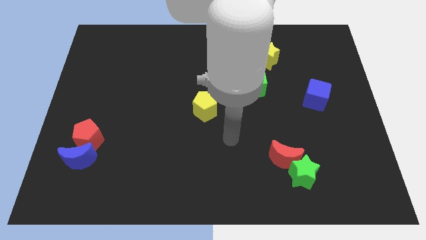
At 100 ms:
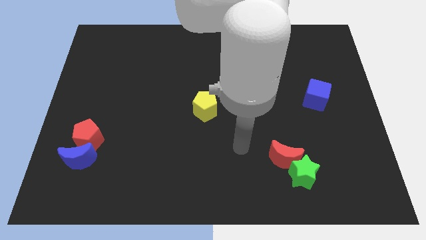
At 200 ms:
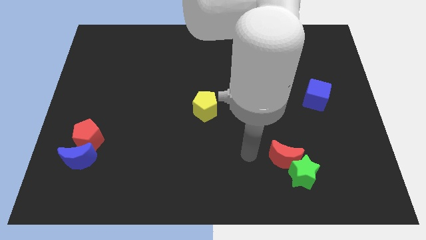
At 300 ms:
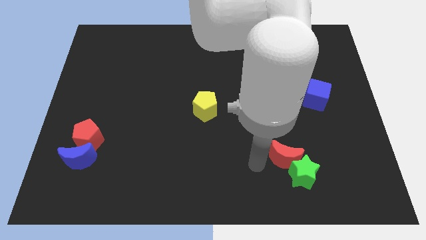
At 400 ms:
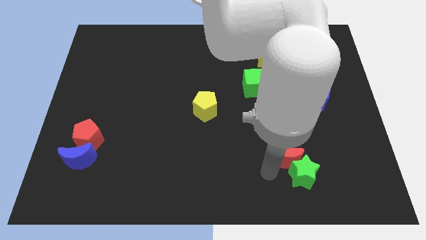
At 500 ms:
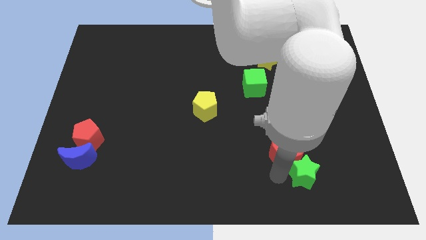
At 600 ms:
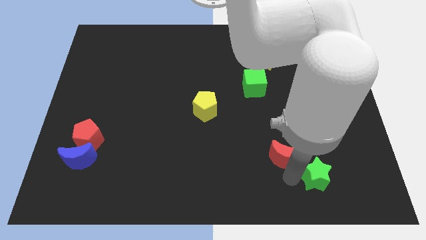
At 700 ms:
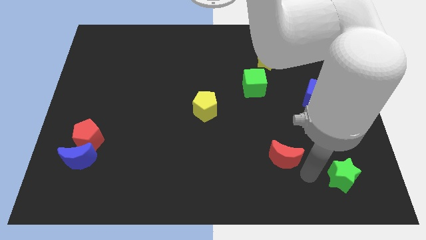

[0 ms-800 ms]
separate the red moon from the green star

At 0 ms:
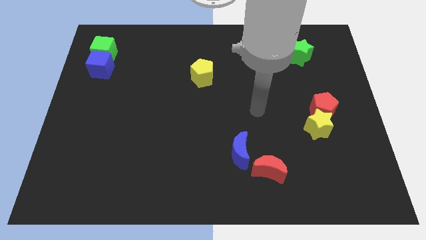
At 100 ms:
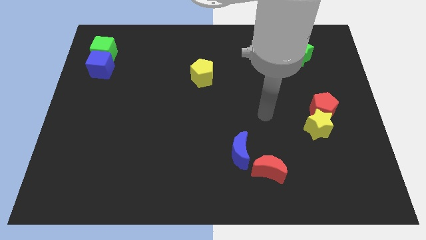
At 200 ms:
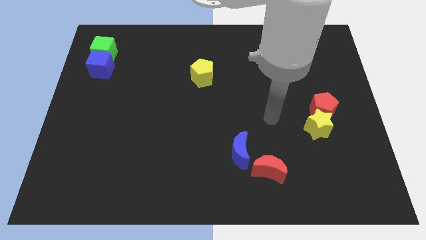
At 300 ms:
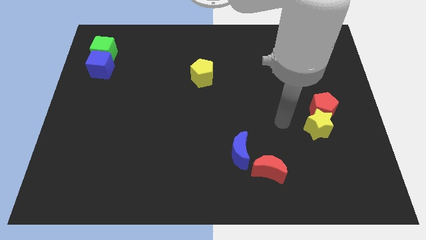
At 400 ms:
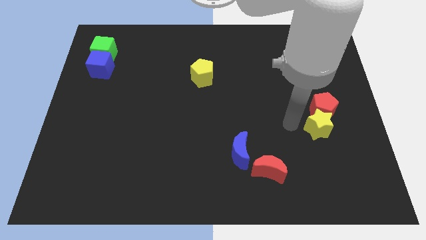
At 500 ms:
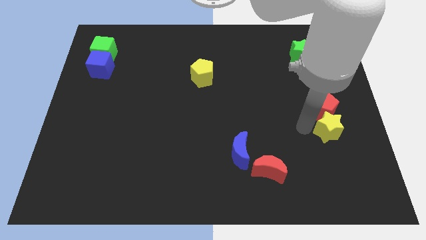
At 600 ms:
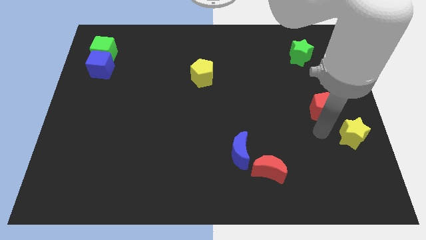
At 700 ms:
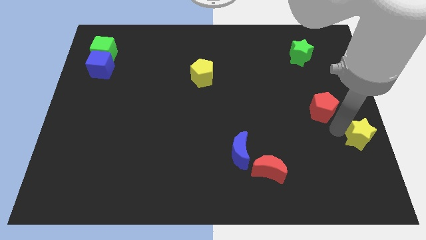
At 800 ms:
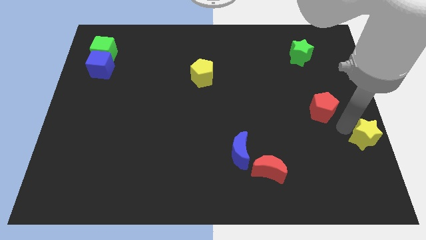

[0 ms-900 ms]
separate the red pentagon from the yellow star

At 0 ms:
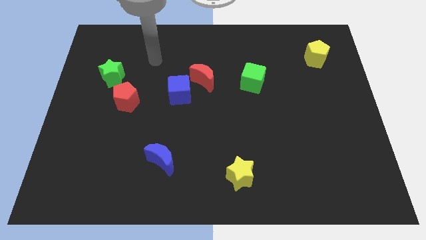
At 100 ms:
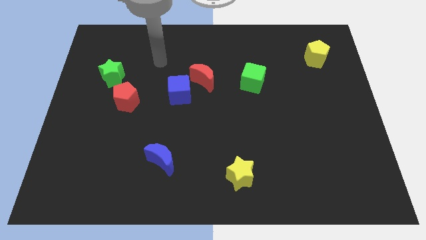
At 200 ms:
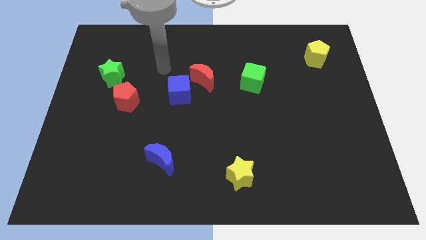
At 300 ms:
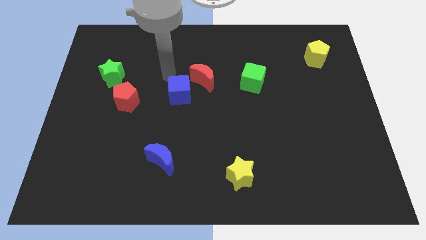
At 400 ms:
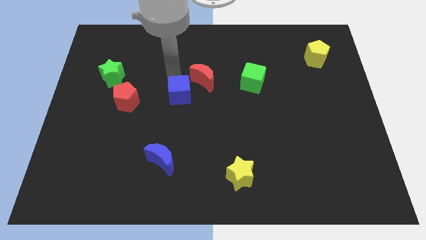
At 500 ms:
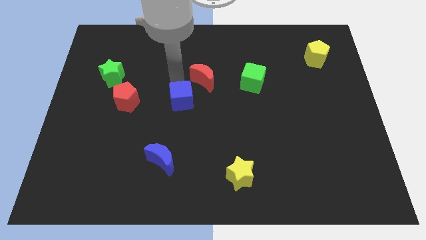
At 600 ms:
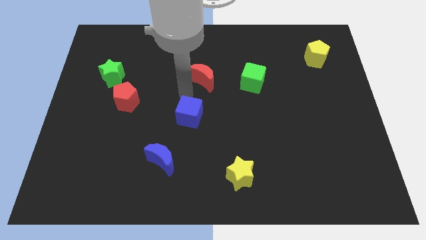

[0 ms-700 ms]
pull the red moon apart from the blue cube

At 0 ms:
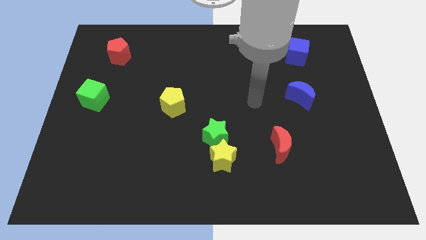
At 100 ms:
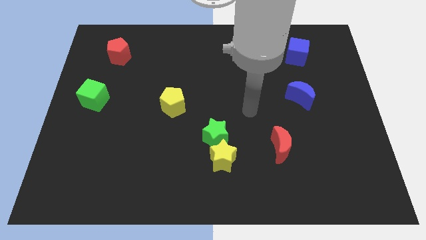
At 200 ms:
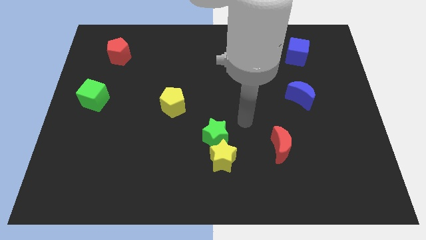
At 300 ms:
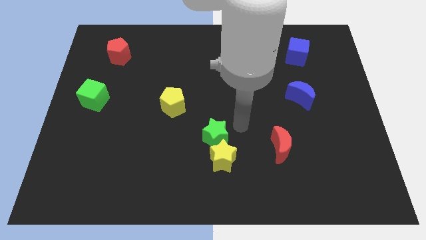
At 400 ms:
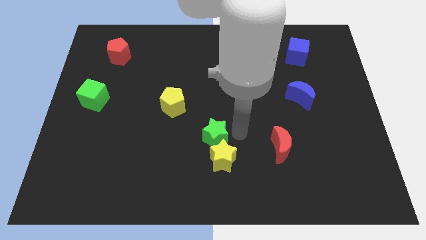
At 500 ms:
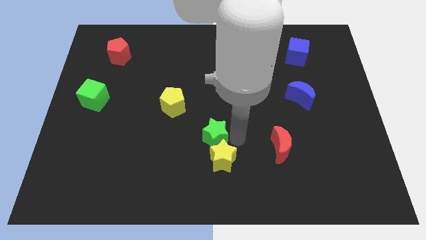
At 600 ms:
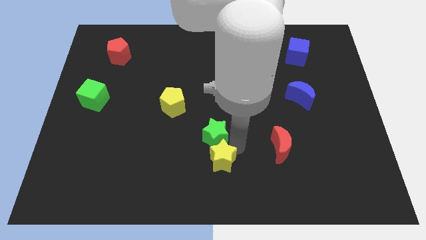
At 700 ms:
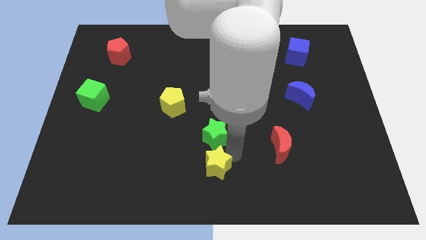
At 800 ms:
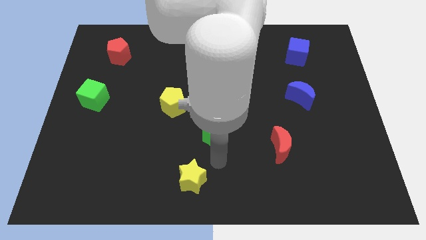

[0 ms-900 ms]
pull the green star apart from the yellow star

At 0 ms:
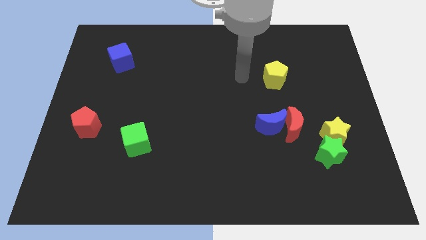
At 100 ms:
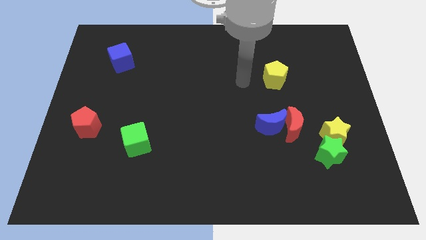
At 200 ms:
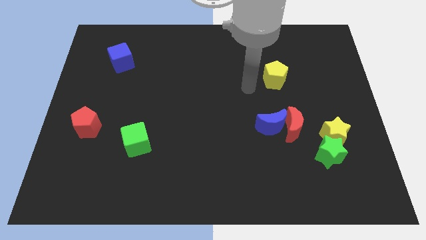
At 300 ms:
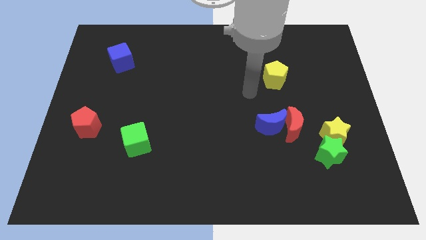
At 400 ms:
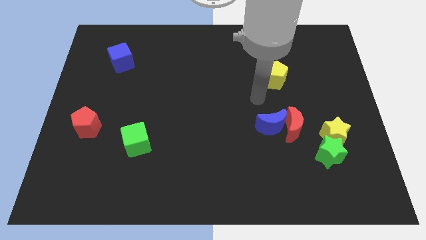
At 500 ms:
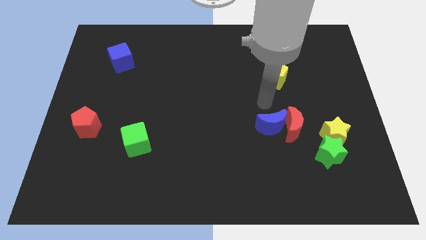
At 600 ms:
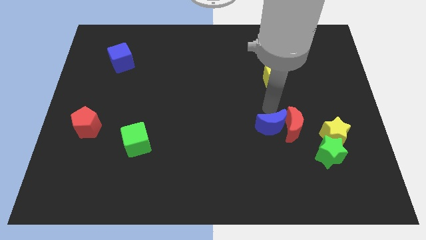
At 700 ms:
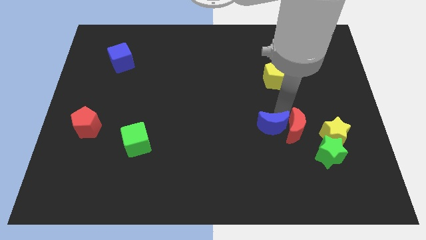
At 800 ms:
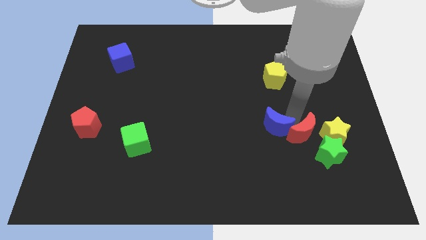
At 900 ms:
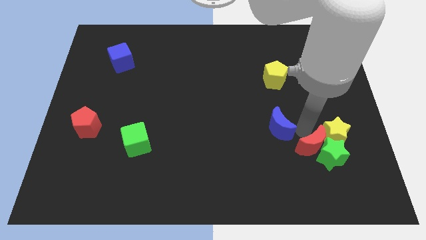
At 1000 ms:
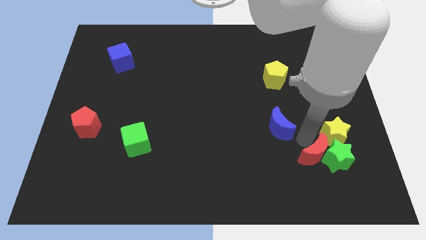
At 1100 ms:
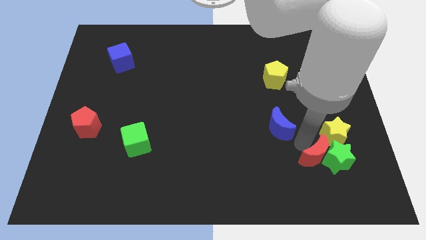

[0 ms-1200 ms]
pull the blue moon apart from the red moon

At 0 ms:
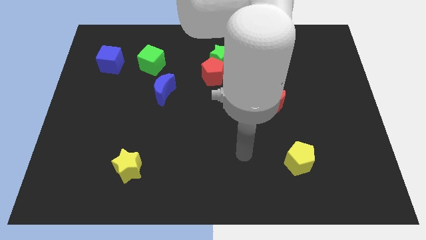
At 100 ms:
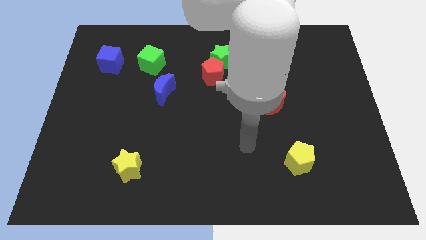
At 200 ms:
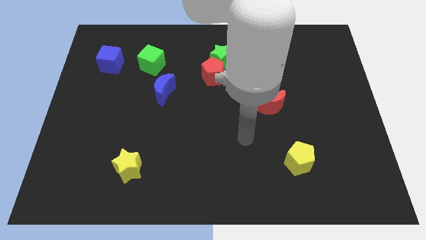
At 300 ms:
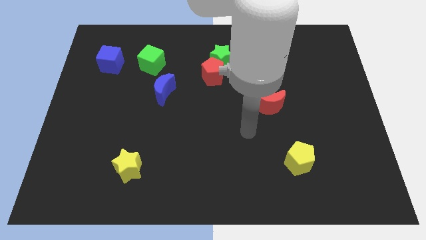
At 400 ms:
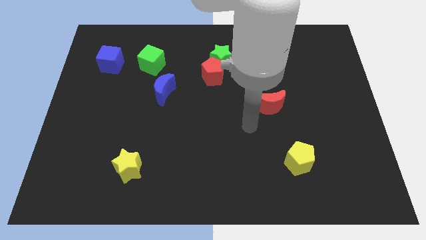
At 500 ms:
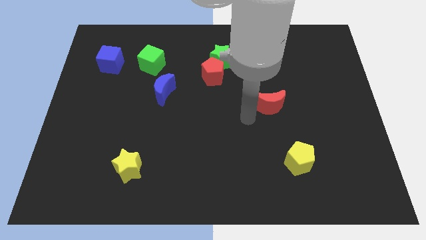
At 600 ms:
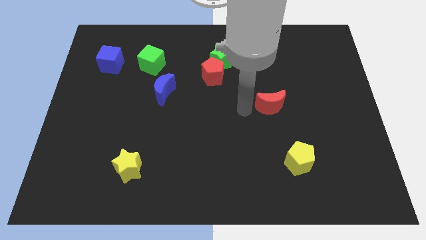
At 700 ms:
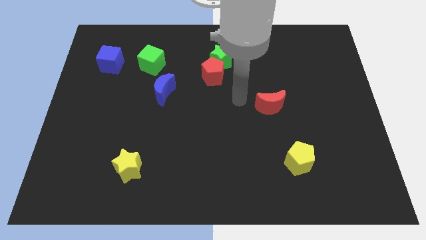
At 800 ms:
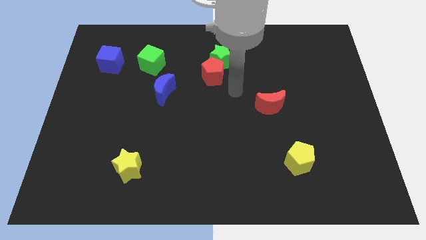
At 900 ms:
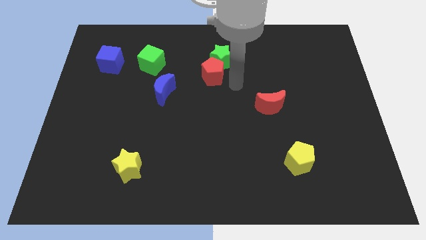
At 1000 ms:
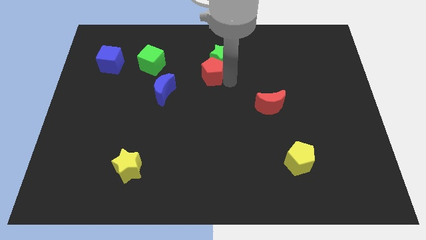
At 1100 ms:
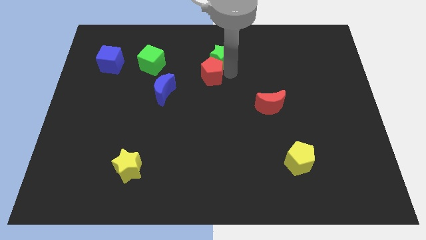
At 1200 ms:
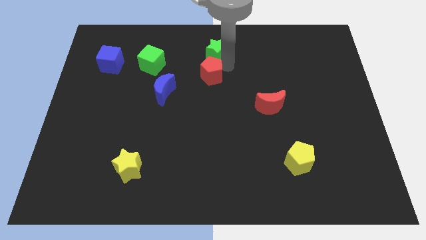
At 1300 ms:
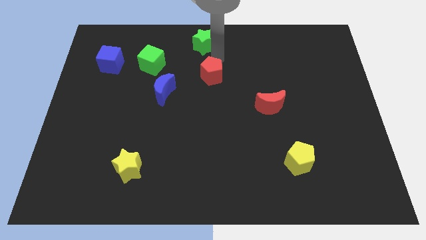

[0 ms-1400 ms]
separate the red pentagon from the green star

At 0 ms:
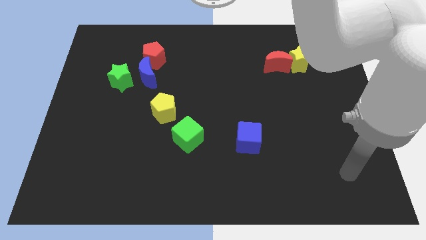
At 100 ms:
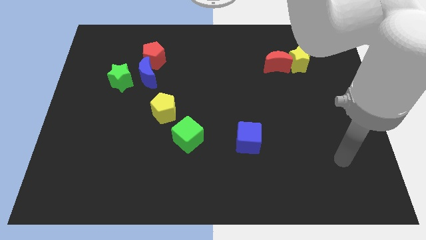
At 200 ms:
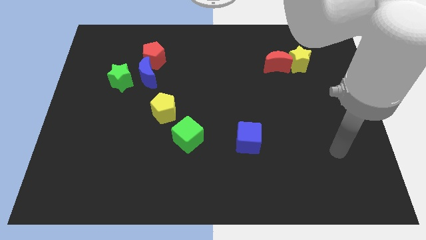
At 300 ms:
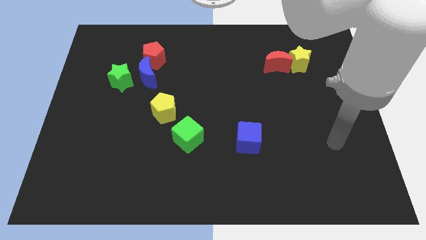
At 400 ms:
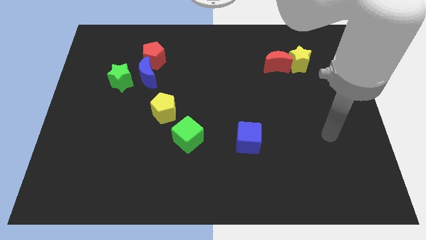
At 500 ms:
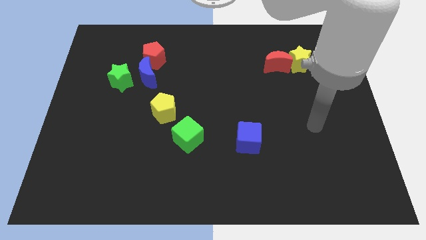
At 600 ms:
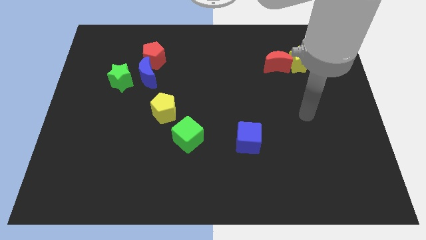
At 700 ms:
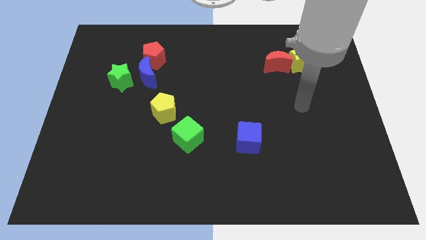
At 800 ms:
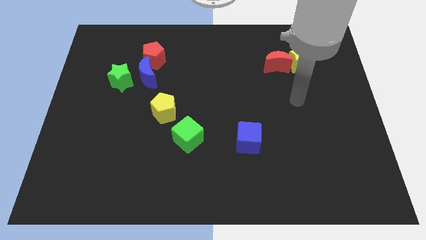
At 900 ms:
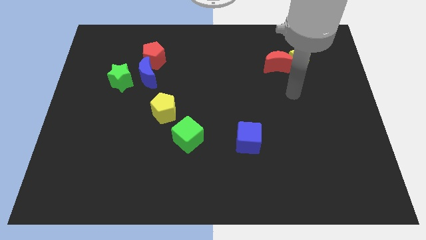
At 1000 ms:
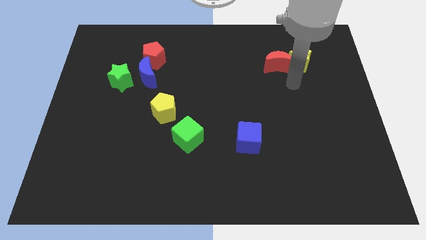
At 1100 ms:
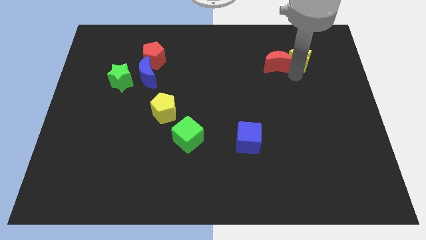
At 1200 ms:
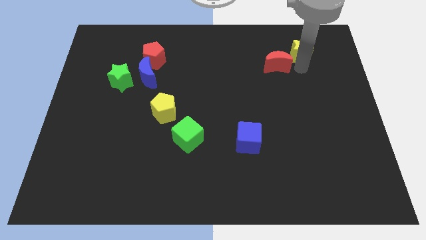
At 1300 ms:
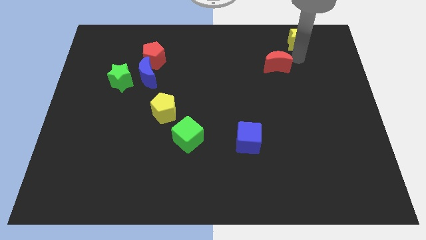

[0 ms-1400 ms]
move the red moon away from the yellow star

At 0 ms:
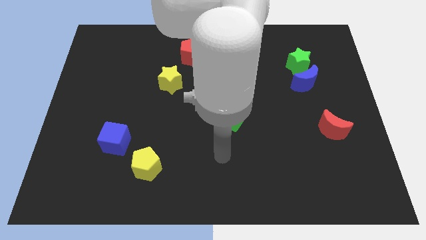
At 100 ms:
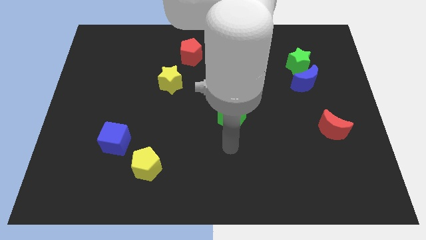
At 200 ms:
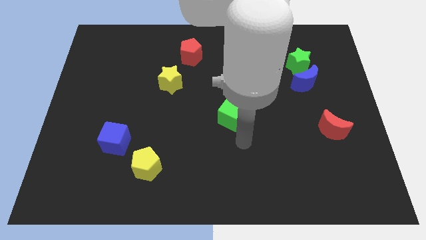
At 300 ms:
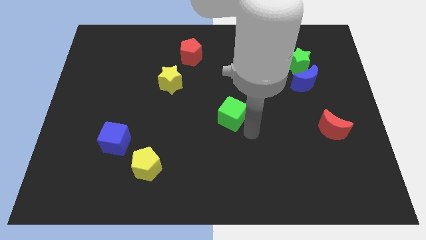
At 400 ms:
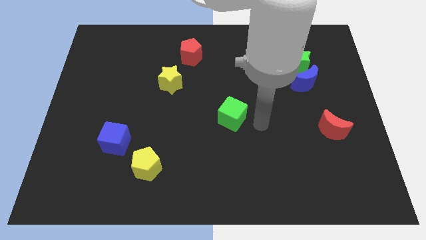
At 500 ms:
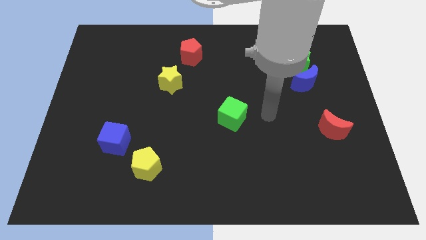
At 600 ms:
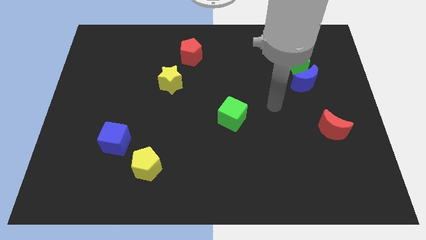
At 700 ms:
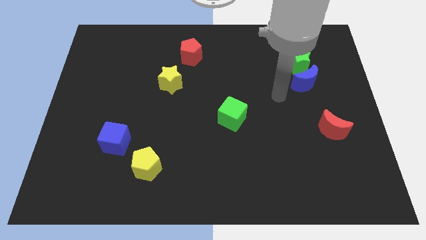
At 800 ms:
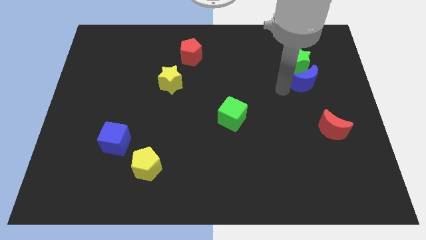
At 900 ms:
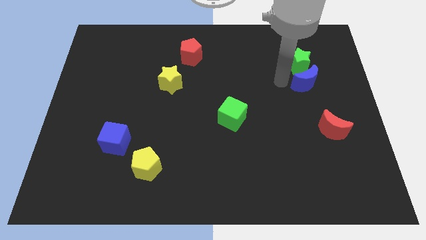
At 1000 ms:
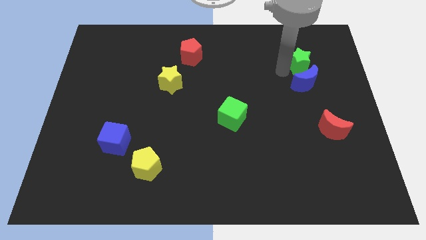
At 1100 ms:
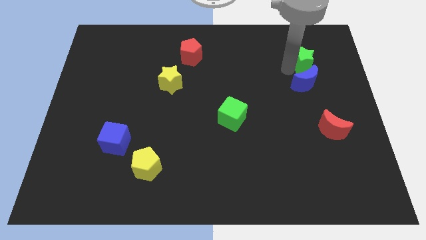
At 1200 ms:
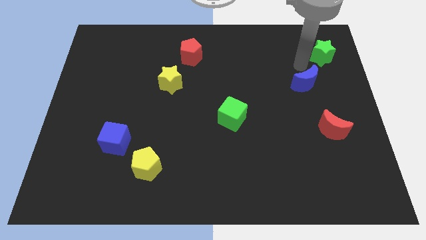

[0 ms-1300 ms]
separate the blue moon from the green star

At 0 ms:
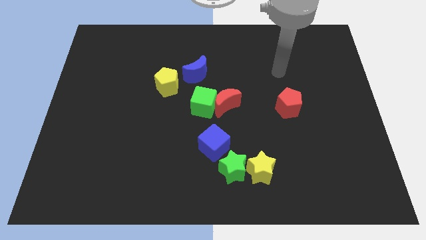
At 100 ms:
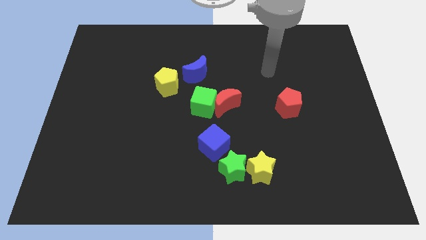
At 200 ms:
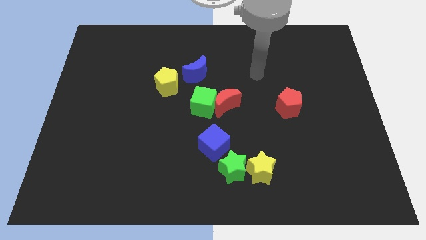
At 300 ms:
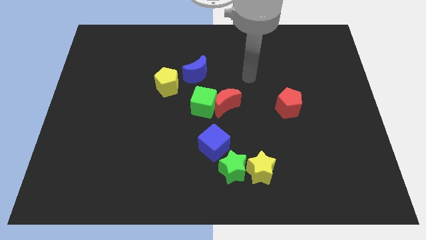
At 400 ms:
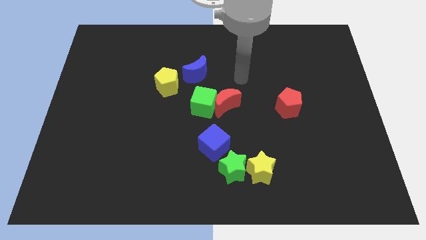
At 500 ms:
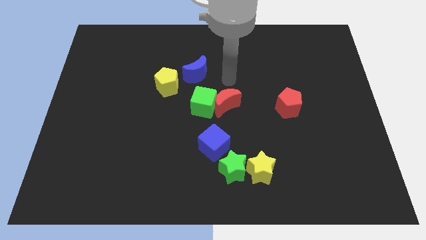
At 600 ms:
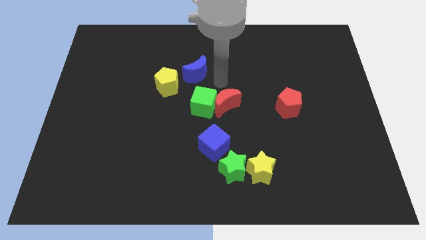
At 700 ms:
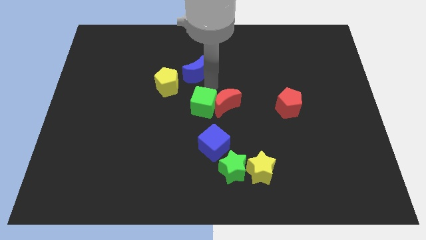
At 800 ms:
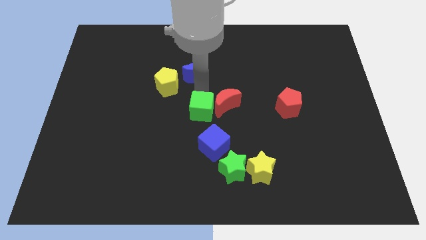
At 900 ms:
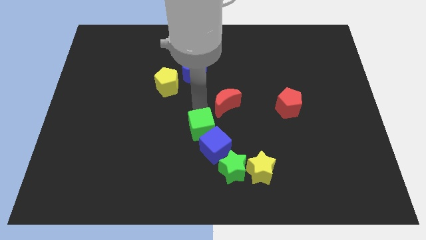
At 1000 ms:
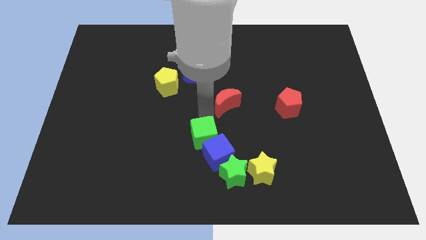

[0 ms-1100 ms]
move the red moon away from the green cube
